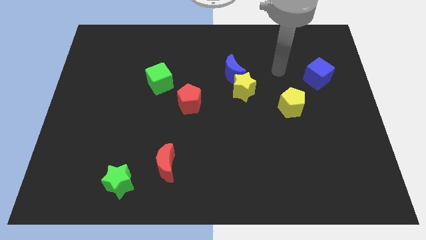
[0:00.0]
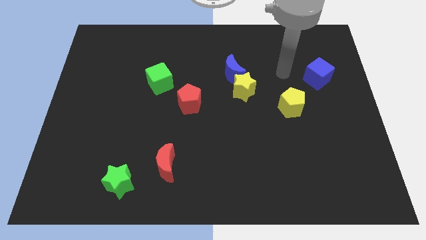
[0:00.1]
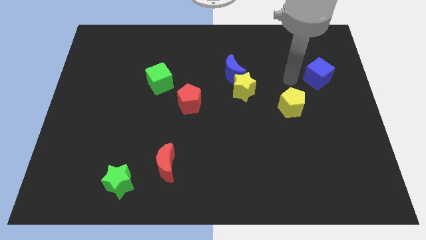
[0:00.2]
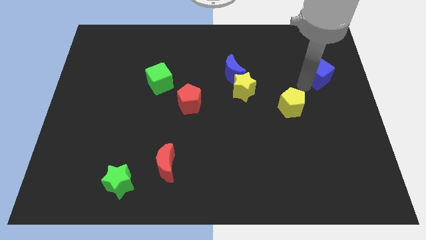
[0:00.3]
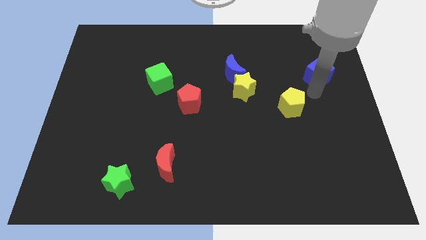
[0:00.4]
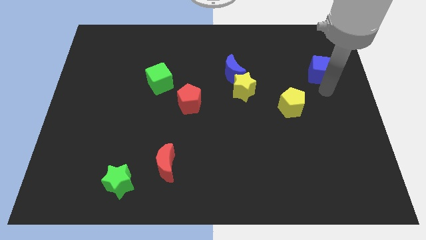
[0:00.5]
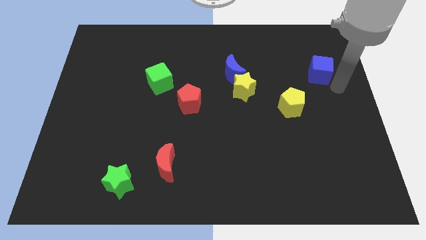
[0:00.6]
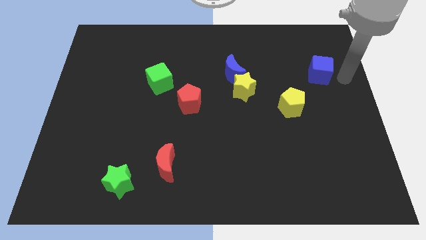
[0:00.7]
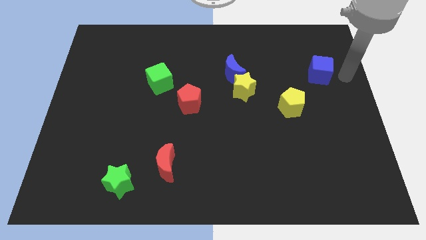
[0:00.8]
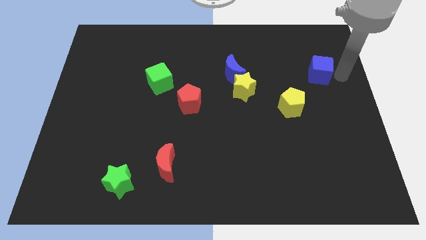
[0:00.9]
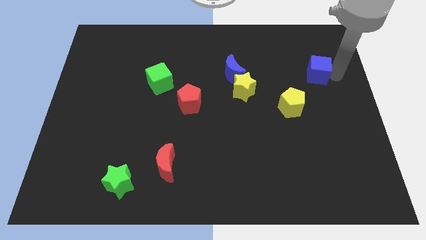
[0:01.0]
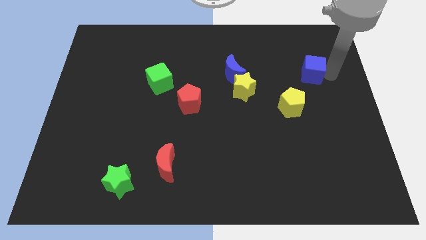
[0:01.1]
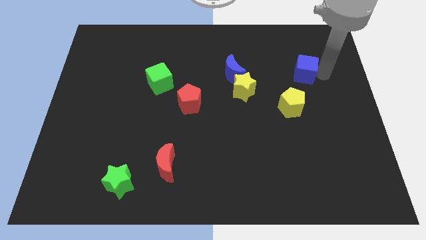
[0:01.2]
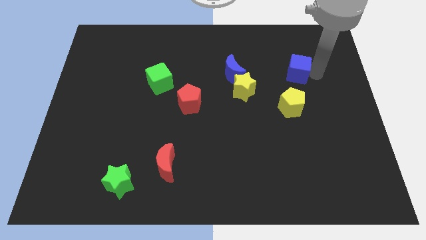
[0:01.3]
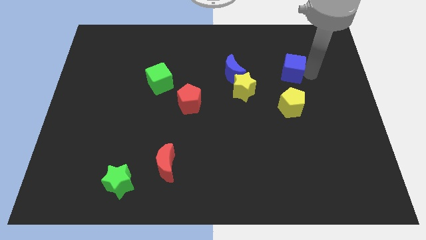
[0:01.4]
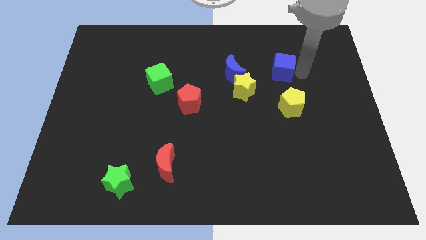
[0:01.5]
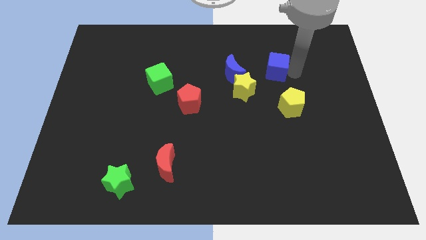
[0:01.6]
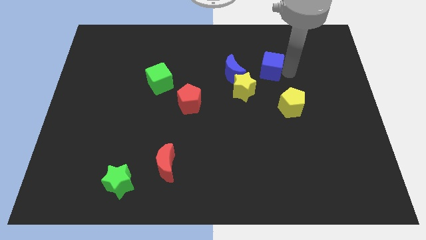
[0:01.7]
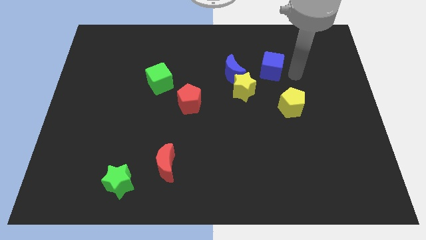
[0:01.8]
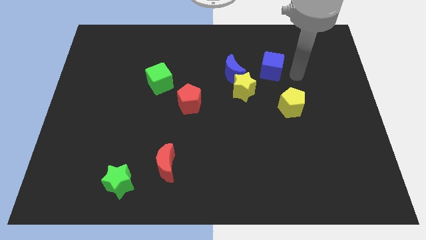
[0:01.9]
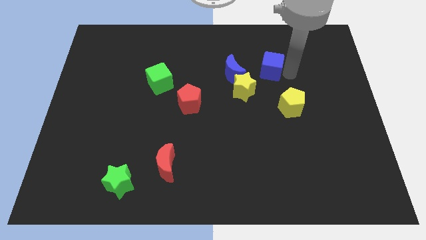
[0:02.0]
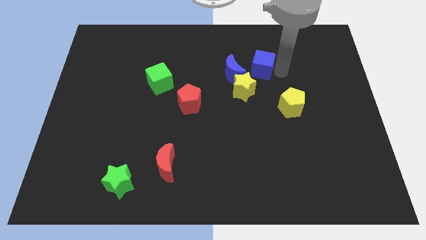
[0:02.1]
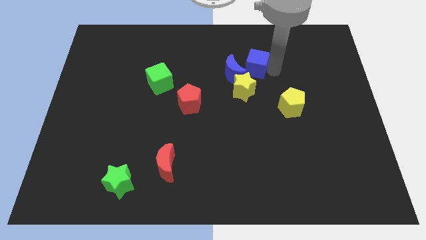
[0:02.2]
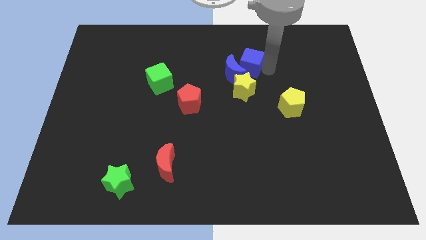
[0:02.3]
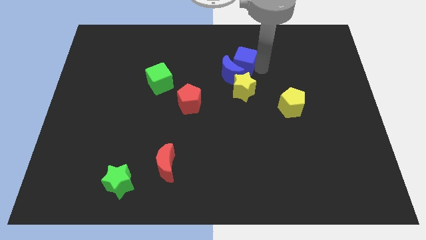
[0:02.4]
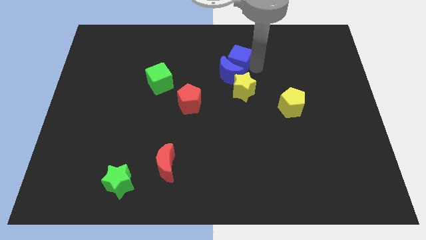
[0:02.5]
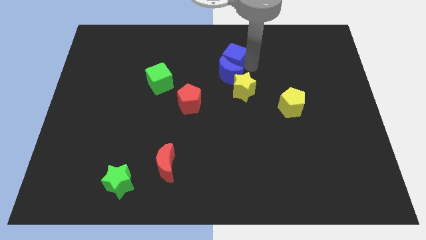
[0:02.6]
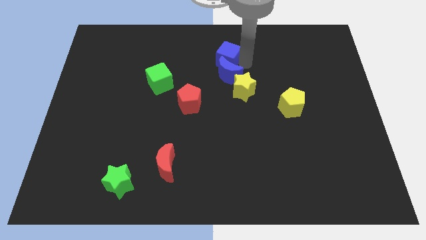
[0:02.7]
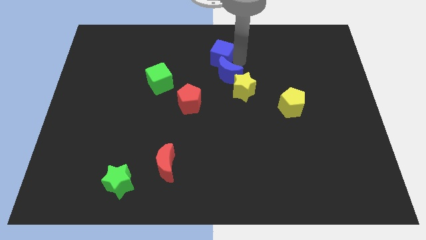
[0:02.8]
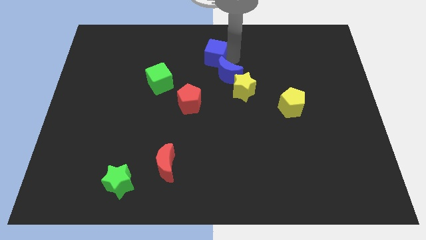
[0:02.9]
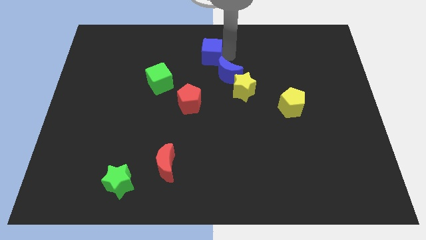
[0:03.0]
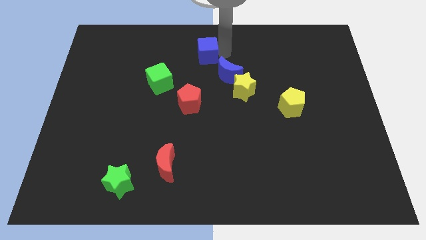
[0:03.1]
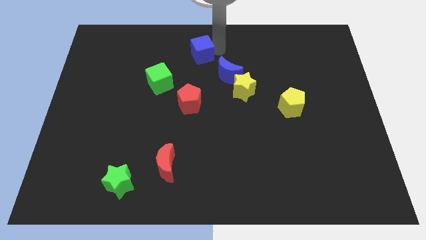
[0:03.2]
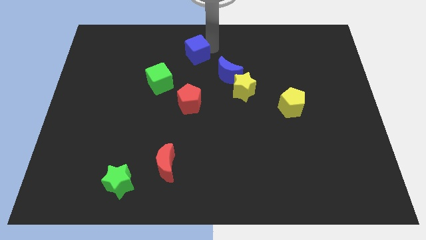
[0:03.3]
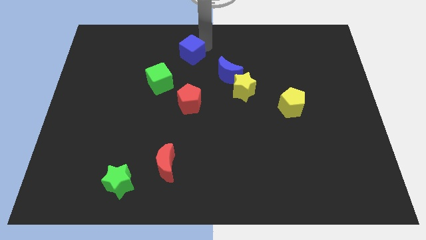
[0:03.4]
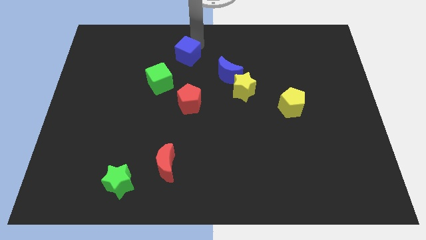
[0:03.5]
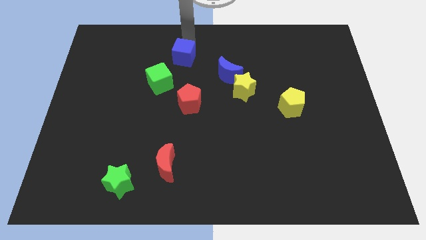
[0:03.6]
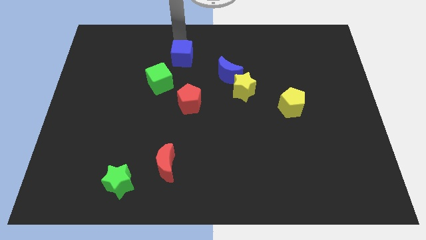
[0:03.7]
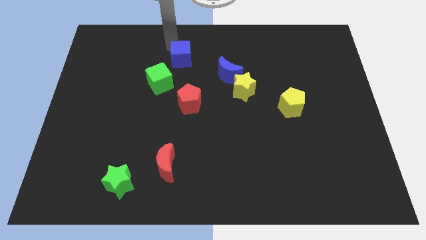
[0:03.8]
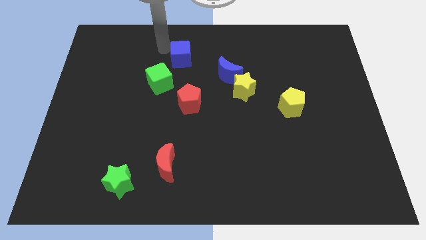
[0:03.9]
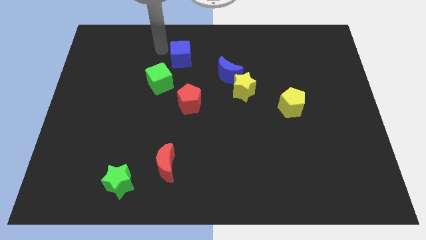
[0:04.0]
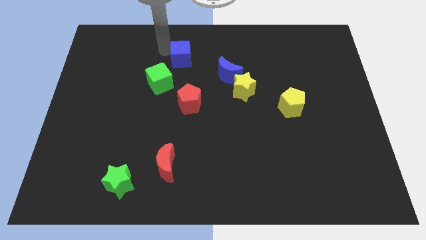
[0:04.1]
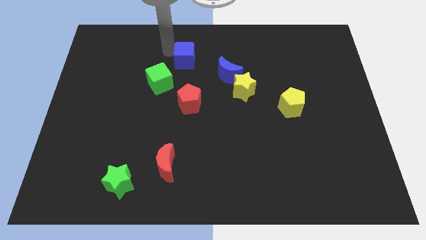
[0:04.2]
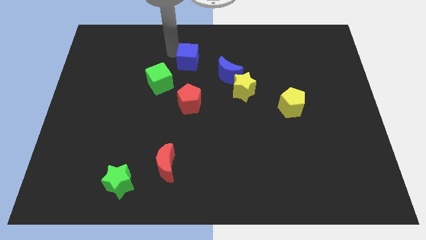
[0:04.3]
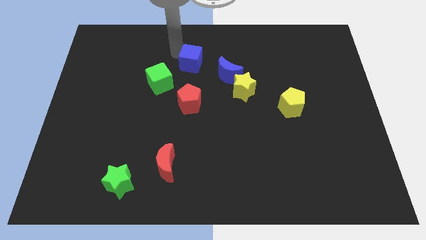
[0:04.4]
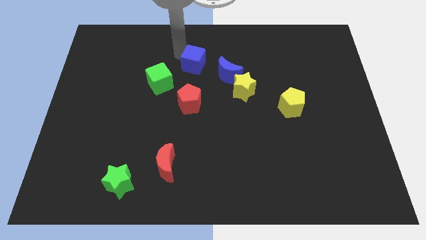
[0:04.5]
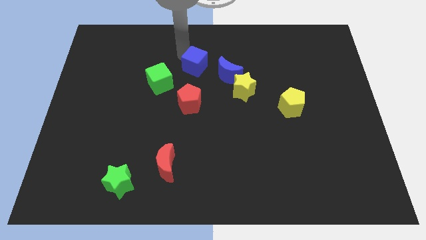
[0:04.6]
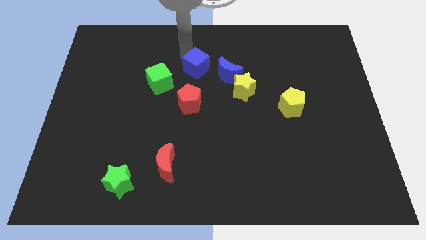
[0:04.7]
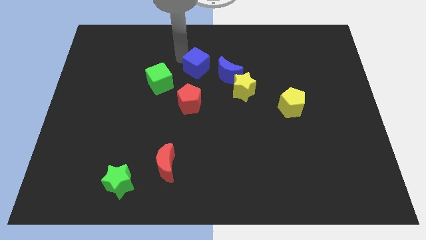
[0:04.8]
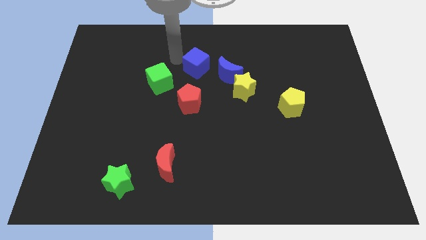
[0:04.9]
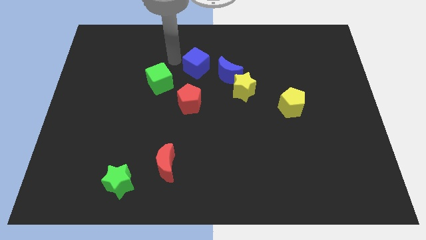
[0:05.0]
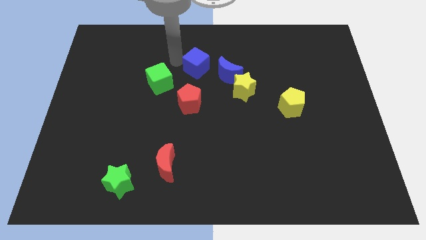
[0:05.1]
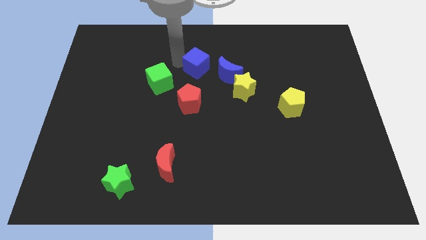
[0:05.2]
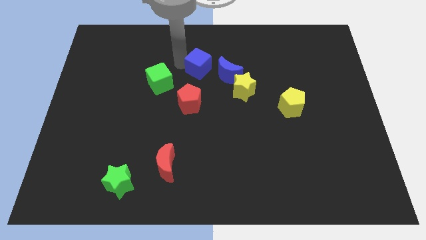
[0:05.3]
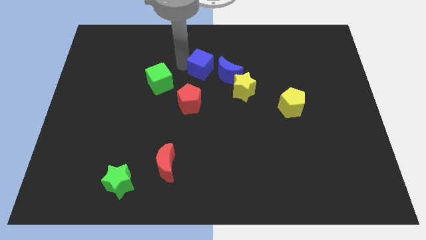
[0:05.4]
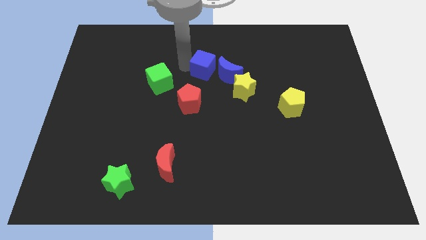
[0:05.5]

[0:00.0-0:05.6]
push the blue cube to the top left of the yellow star

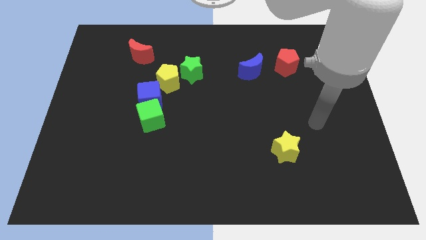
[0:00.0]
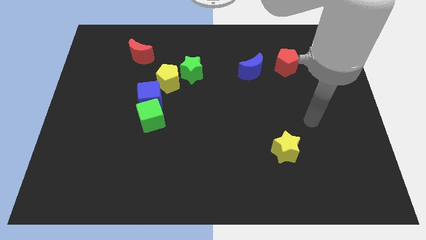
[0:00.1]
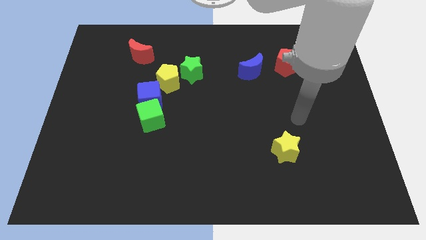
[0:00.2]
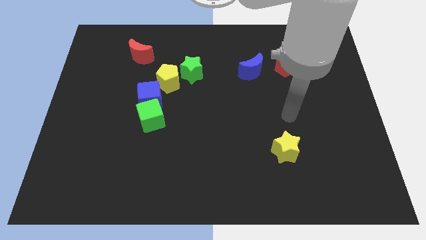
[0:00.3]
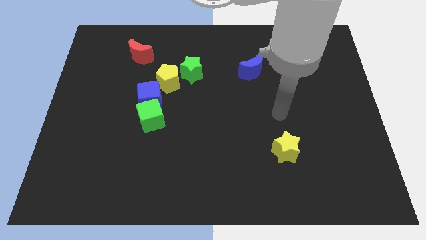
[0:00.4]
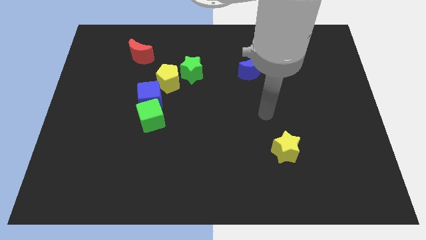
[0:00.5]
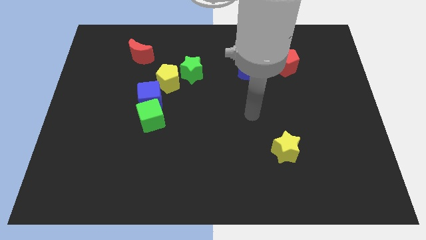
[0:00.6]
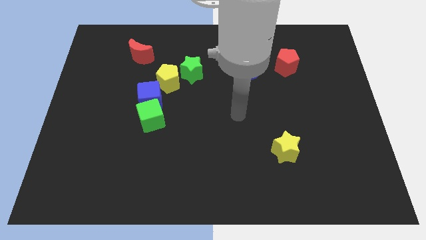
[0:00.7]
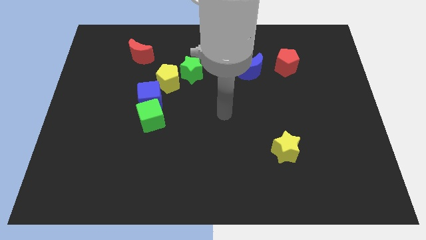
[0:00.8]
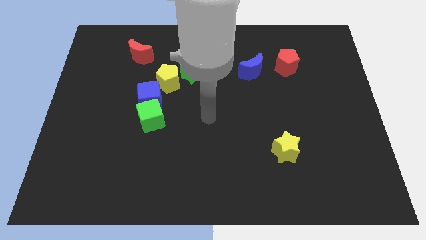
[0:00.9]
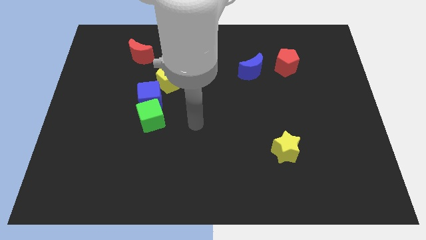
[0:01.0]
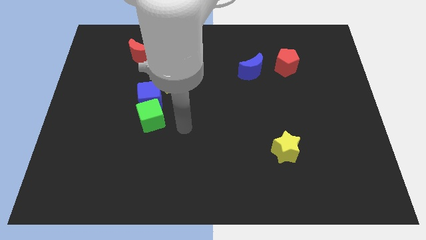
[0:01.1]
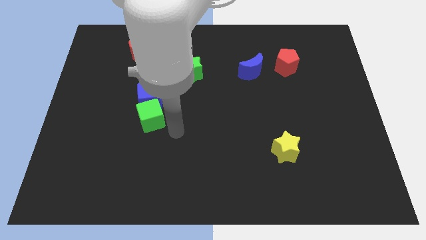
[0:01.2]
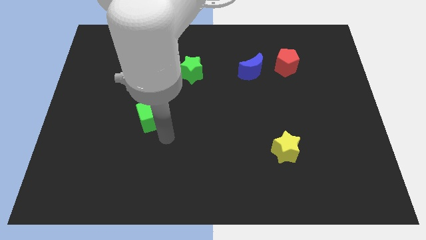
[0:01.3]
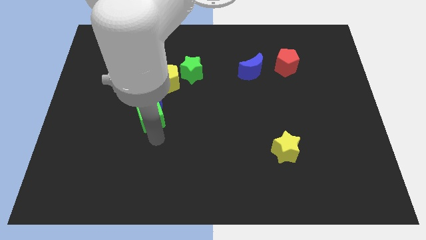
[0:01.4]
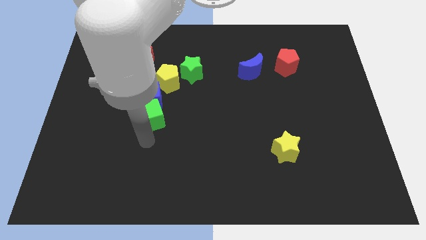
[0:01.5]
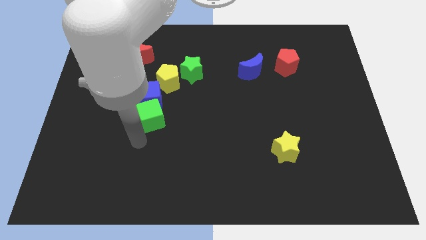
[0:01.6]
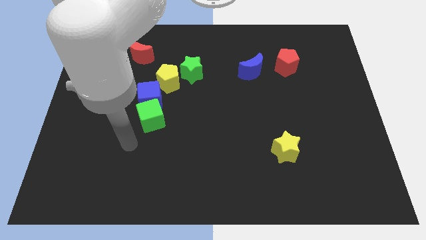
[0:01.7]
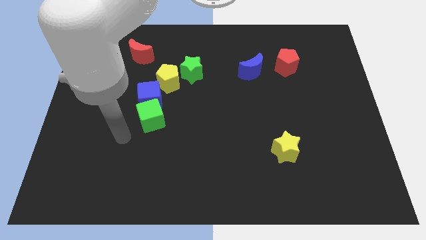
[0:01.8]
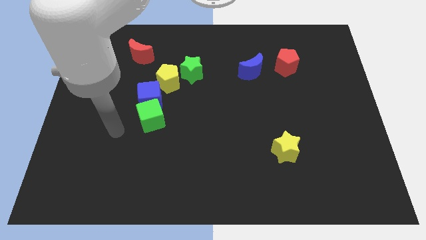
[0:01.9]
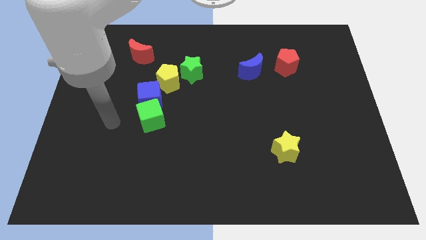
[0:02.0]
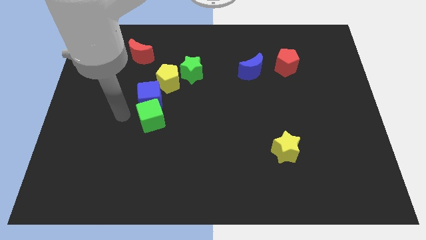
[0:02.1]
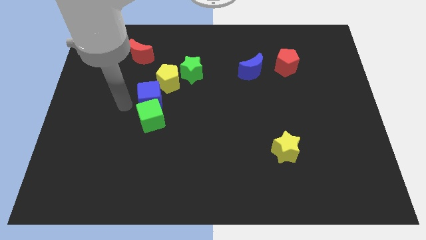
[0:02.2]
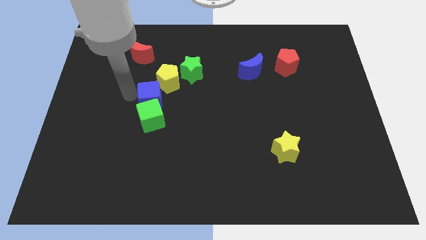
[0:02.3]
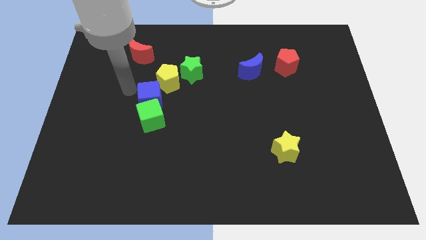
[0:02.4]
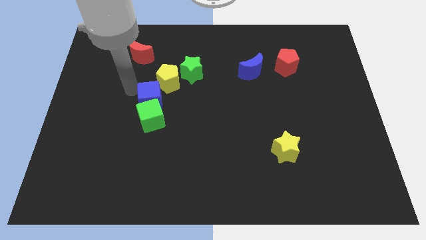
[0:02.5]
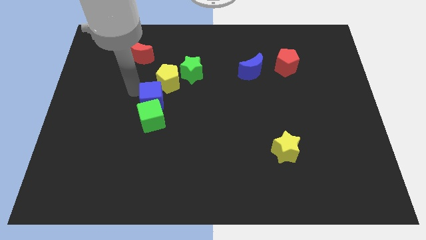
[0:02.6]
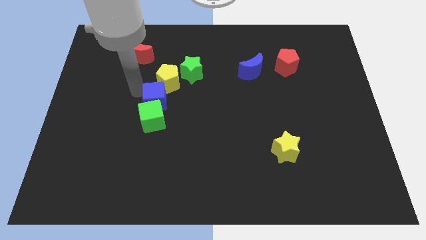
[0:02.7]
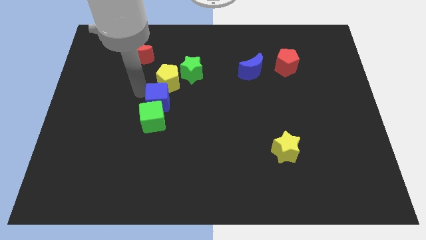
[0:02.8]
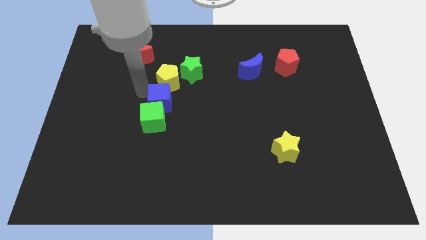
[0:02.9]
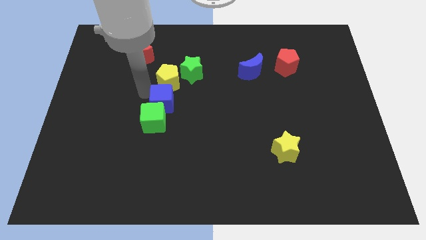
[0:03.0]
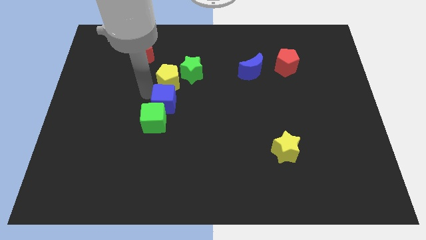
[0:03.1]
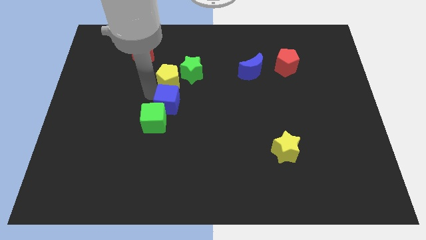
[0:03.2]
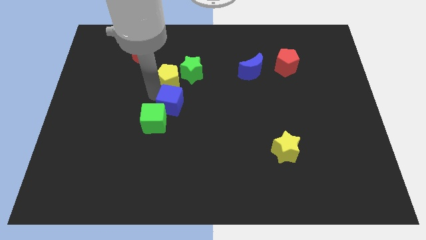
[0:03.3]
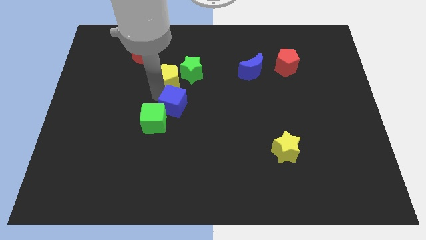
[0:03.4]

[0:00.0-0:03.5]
push the blue cube just right of the green cube
